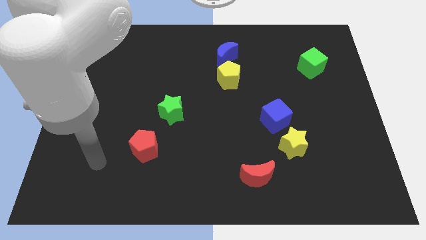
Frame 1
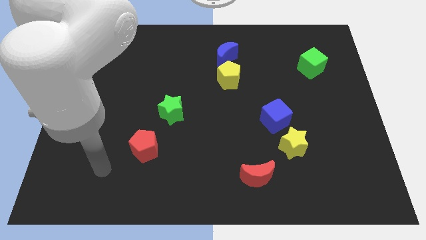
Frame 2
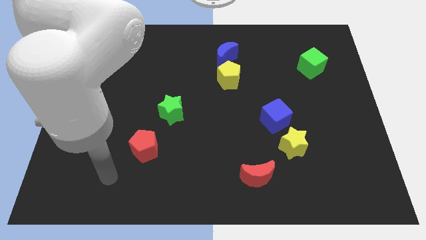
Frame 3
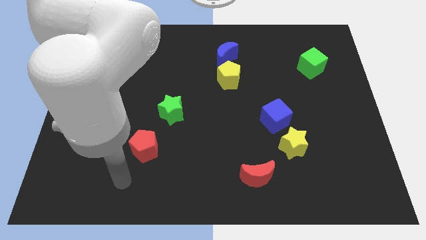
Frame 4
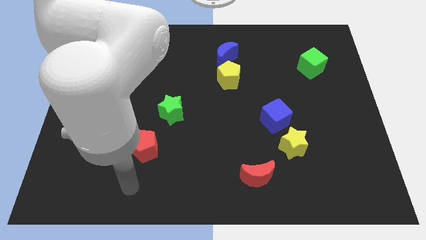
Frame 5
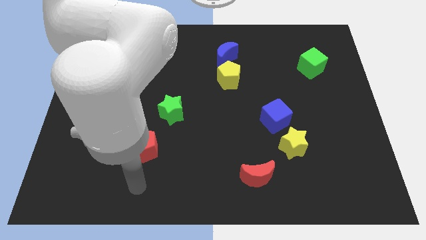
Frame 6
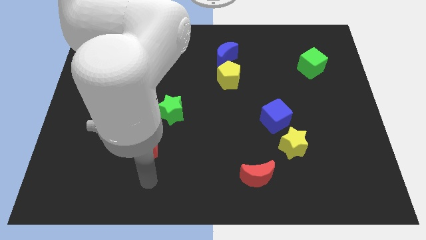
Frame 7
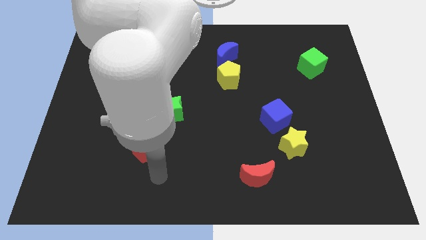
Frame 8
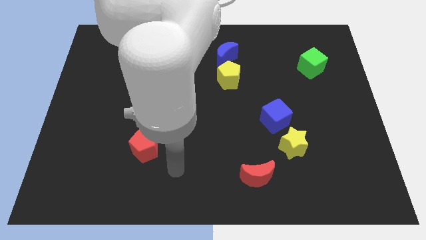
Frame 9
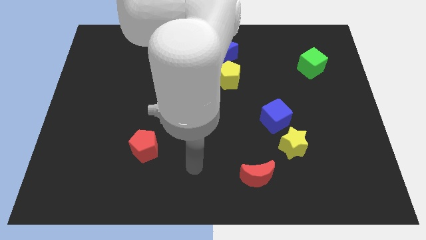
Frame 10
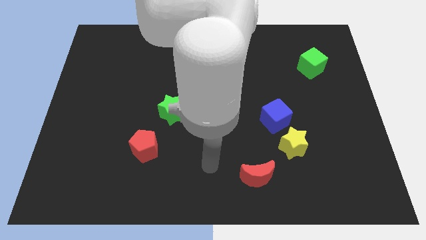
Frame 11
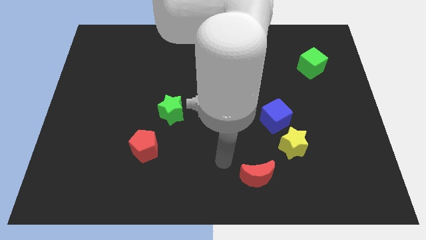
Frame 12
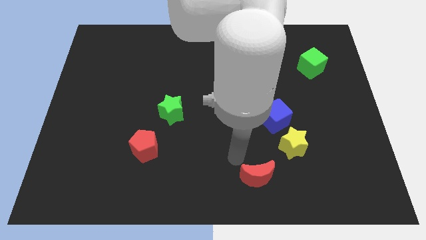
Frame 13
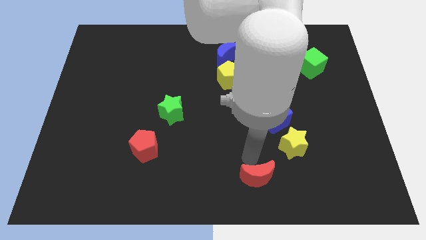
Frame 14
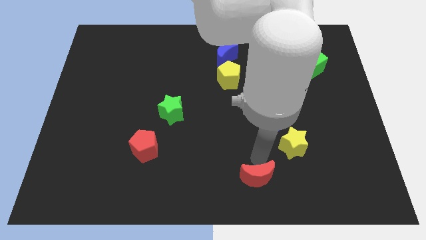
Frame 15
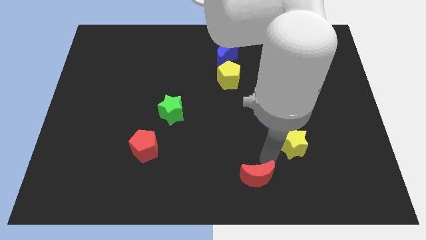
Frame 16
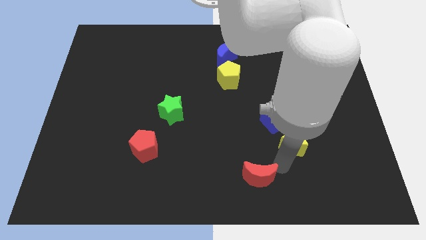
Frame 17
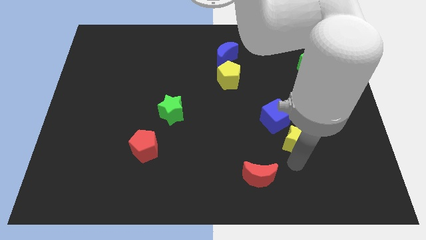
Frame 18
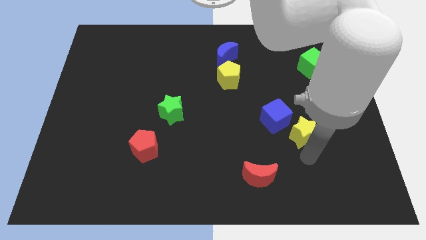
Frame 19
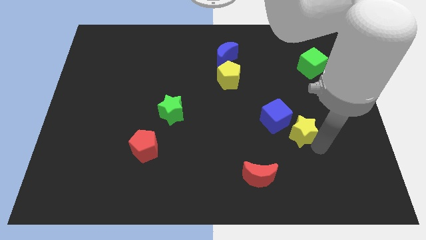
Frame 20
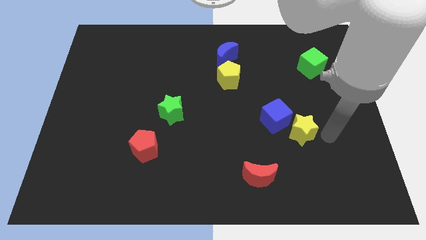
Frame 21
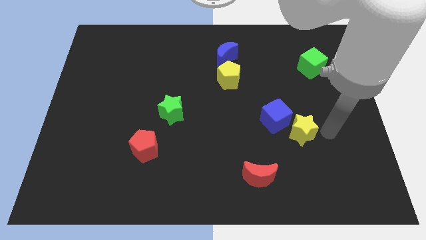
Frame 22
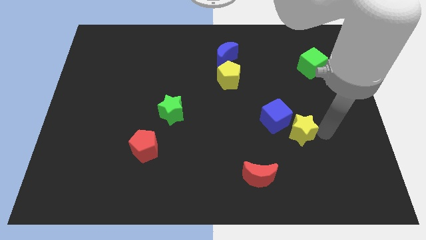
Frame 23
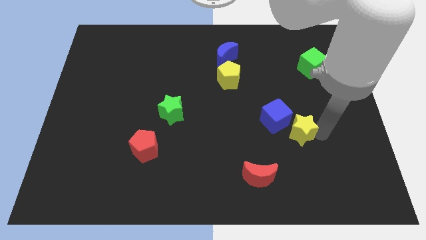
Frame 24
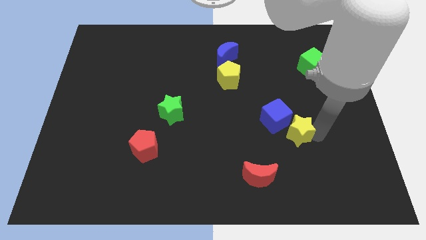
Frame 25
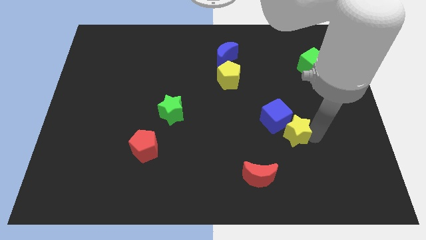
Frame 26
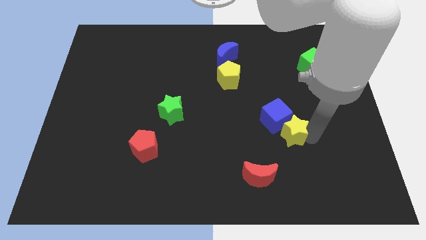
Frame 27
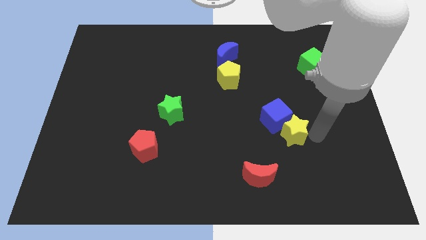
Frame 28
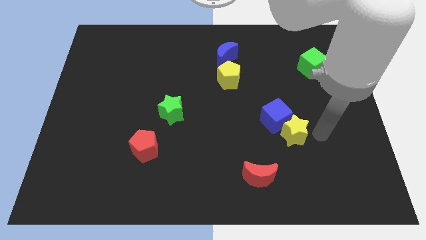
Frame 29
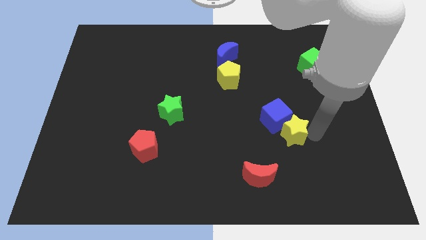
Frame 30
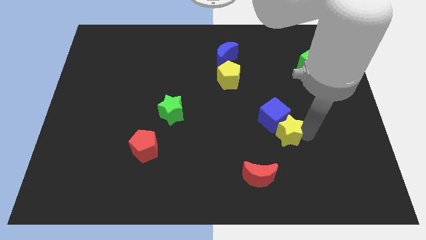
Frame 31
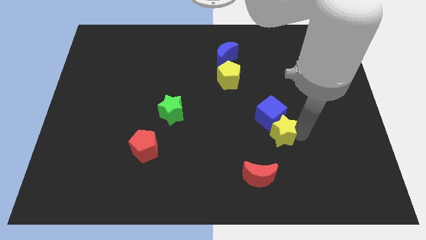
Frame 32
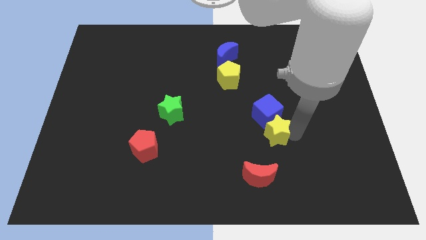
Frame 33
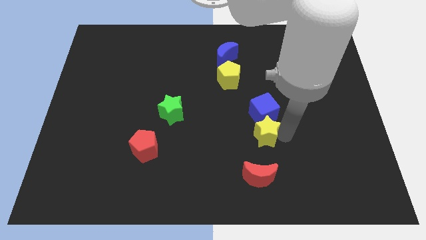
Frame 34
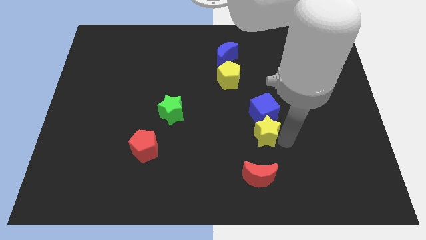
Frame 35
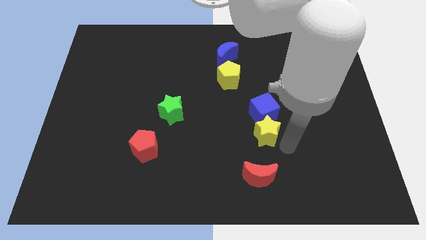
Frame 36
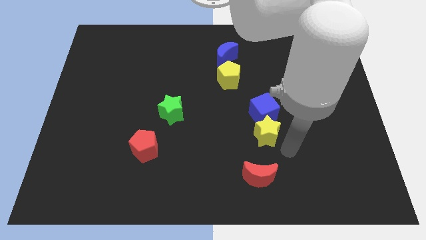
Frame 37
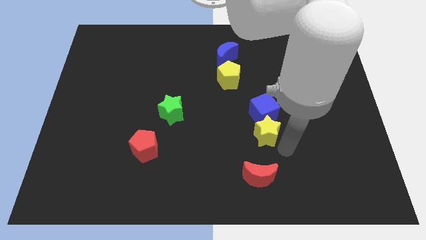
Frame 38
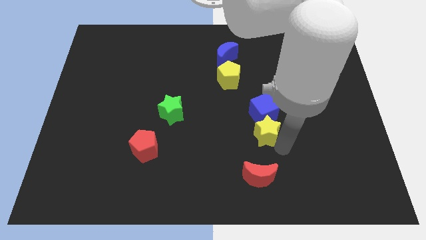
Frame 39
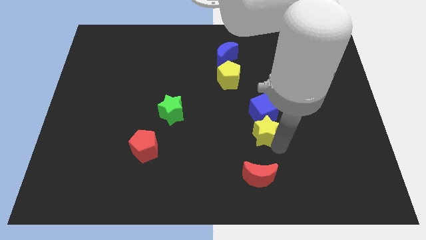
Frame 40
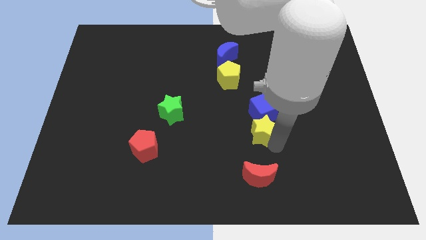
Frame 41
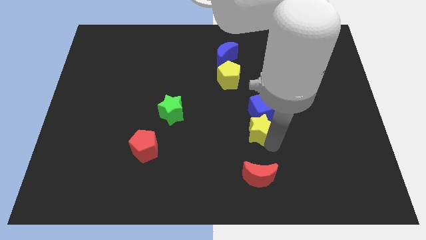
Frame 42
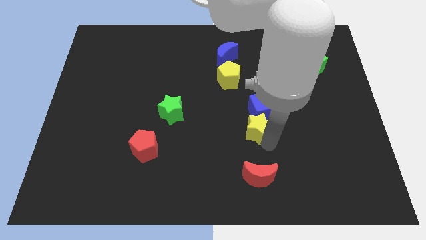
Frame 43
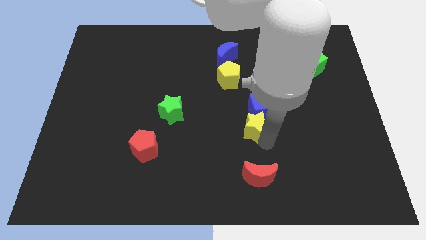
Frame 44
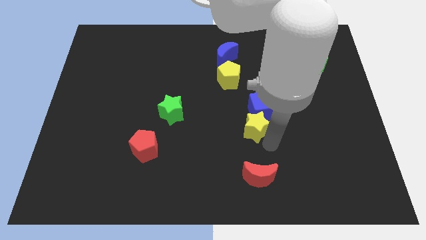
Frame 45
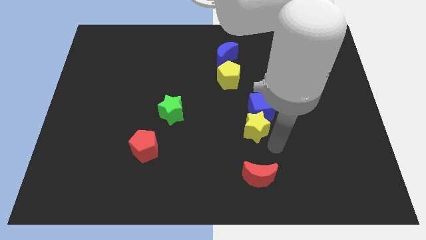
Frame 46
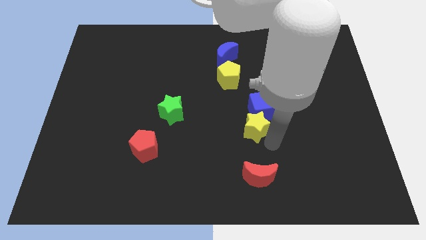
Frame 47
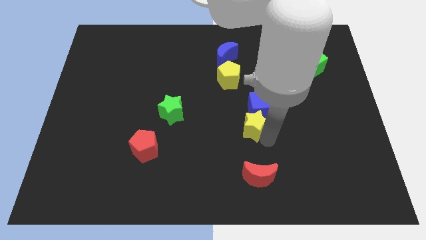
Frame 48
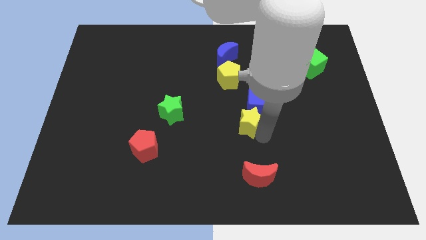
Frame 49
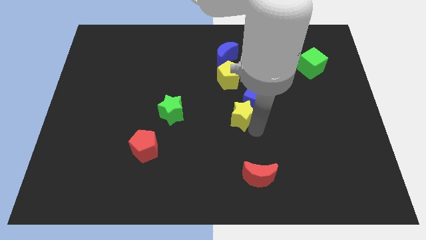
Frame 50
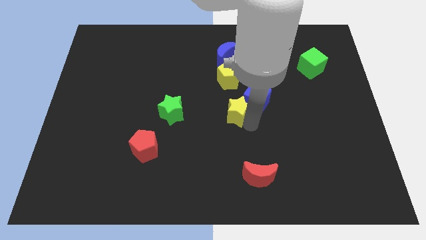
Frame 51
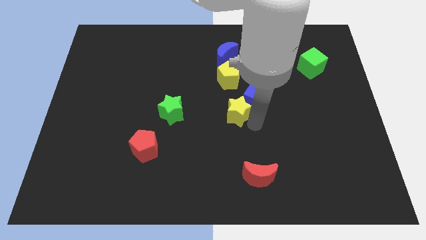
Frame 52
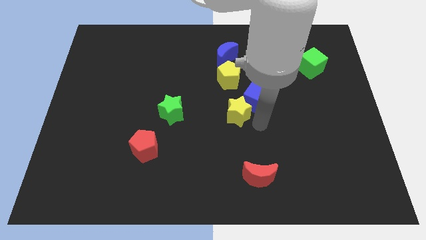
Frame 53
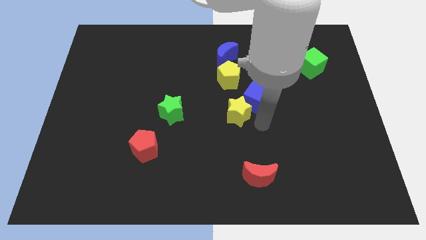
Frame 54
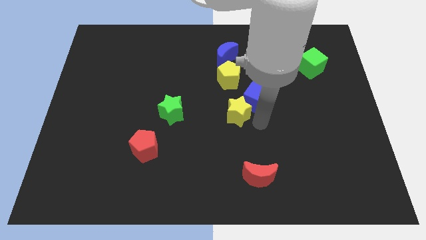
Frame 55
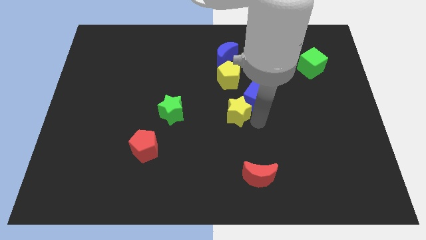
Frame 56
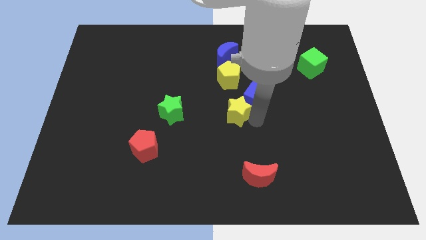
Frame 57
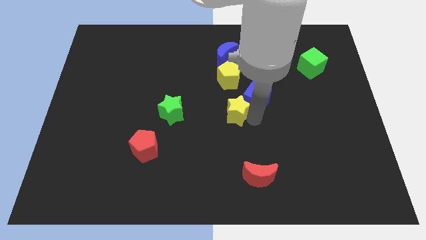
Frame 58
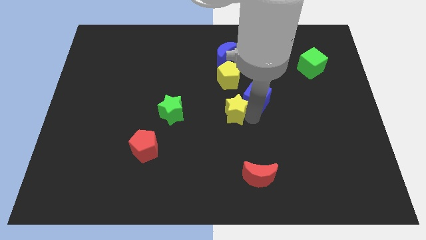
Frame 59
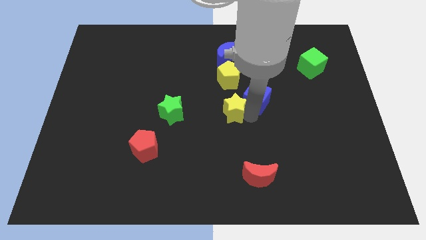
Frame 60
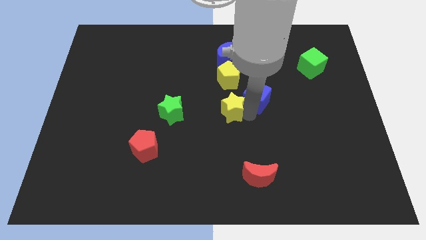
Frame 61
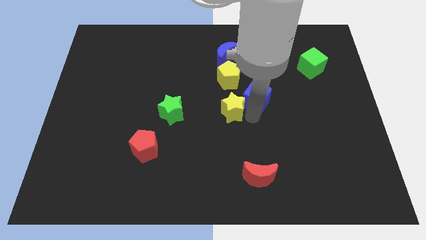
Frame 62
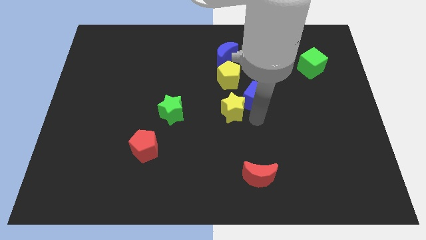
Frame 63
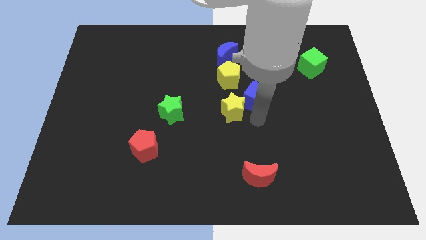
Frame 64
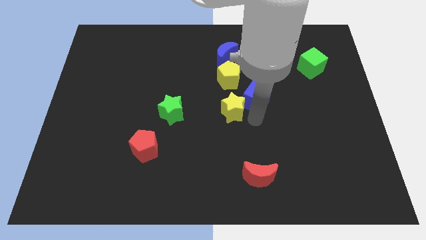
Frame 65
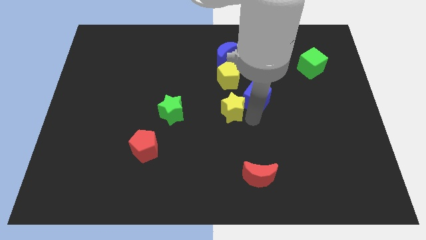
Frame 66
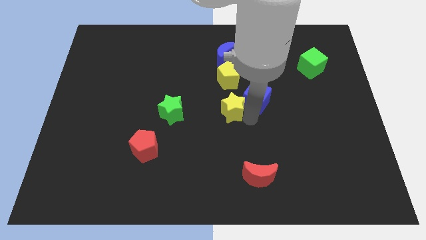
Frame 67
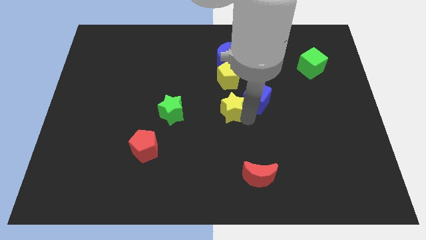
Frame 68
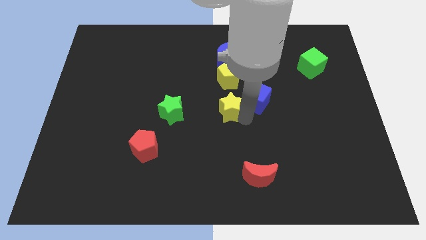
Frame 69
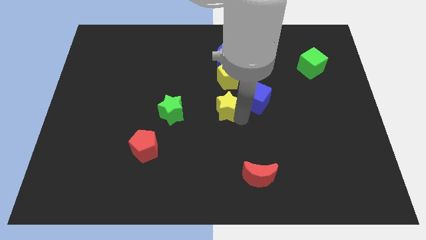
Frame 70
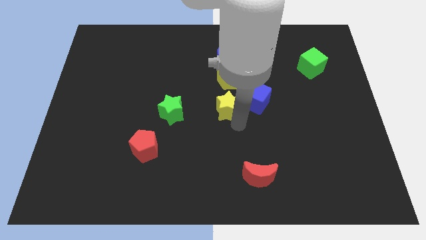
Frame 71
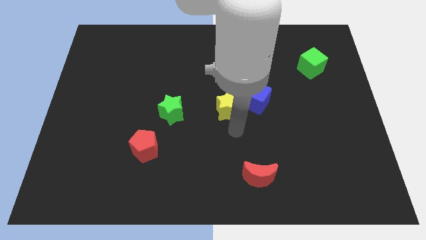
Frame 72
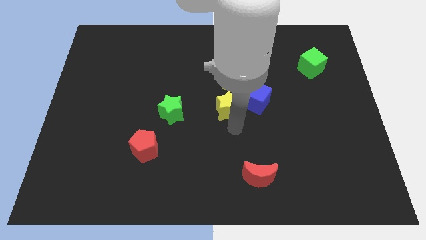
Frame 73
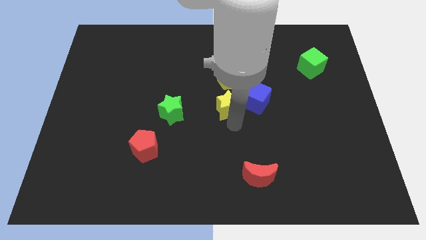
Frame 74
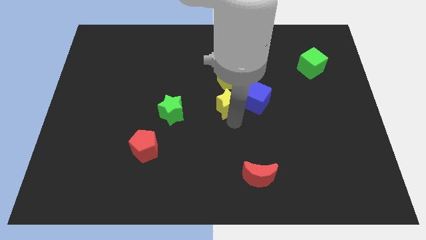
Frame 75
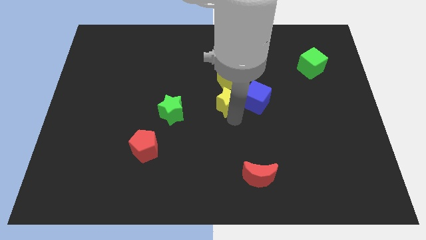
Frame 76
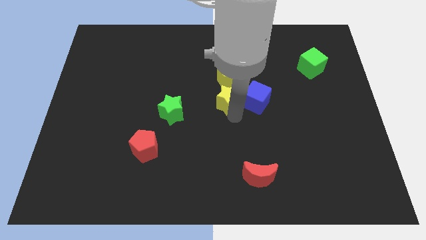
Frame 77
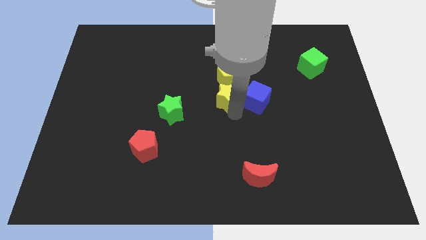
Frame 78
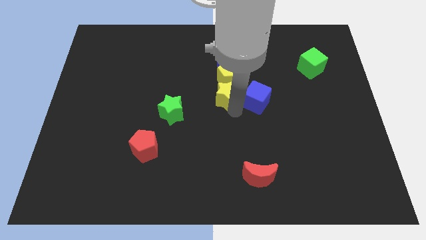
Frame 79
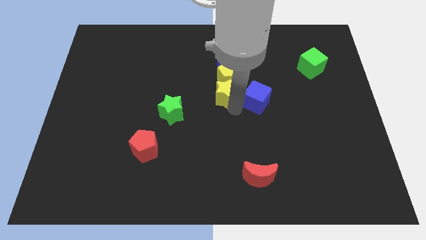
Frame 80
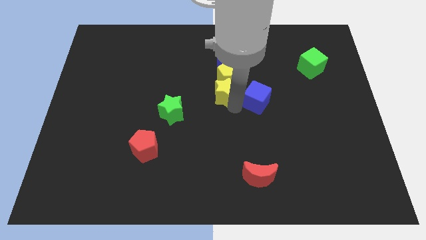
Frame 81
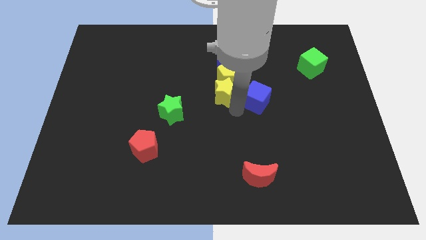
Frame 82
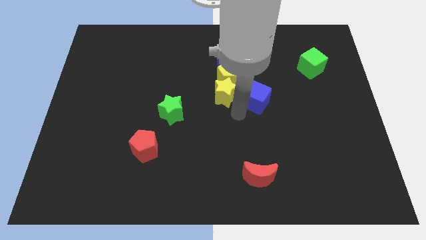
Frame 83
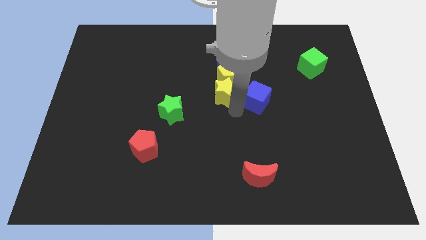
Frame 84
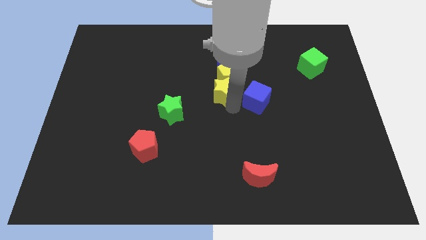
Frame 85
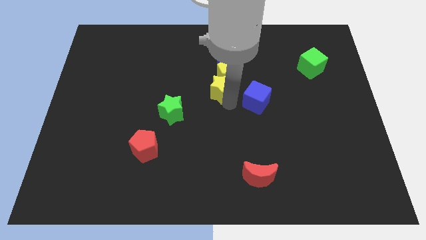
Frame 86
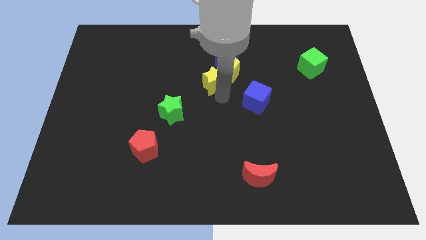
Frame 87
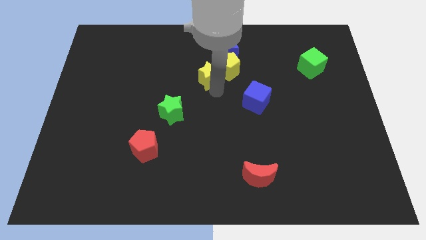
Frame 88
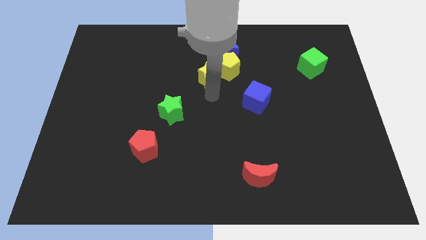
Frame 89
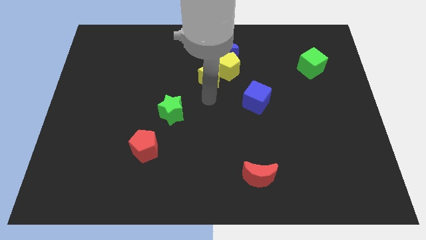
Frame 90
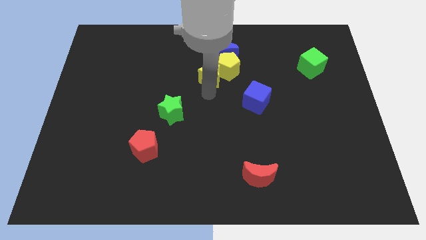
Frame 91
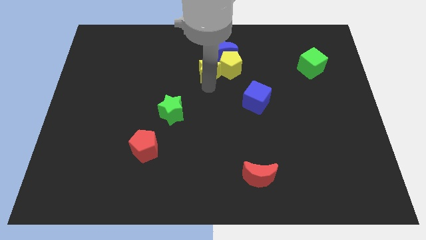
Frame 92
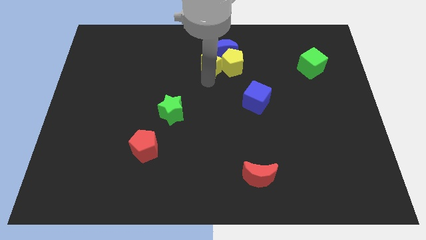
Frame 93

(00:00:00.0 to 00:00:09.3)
put the yellow star to the top left of the yellow pentagon
